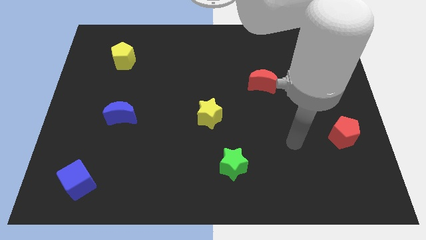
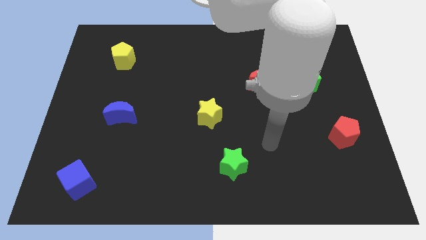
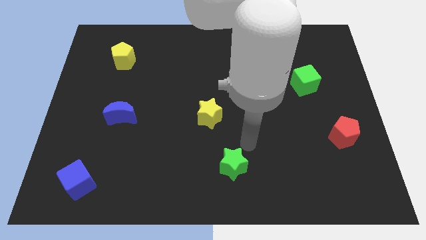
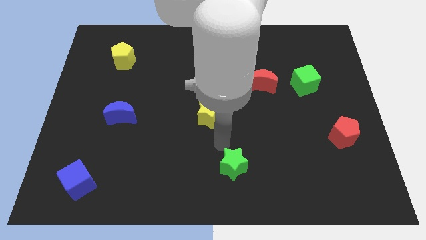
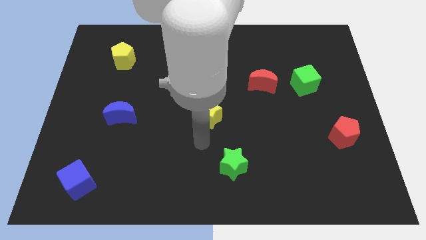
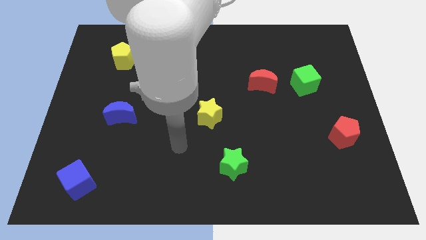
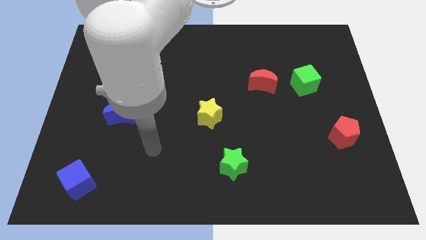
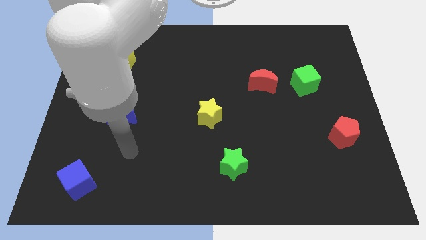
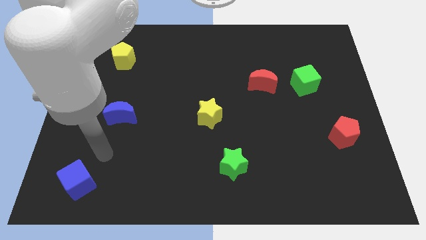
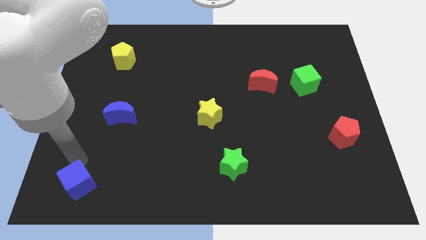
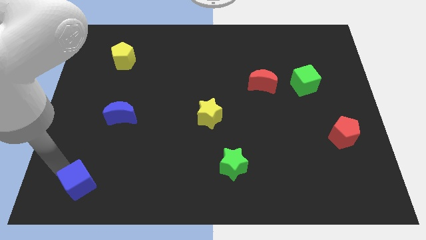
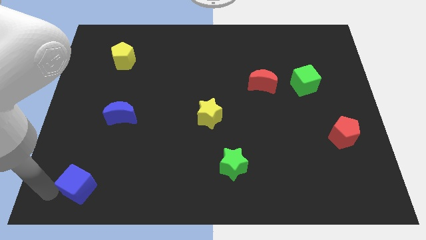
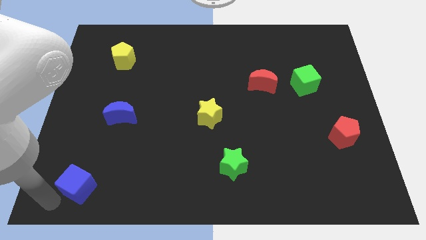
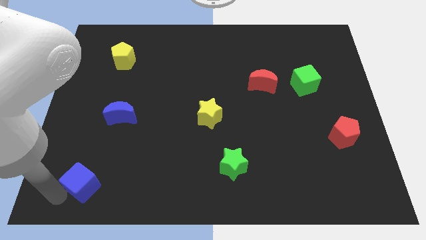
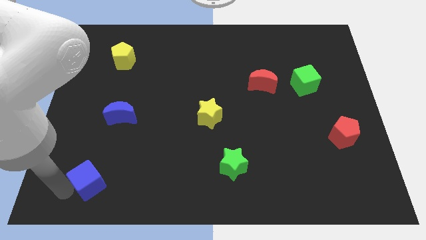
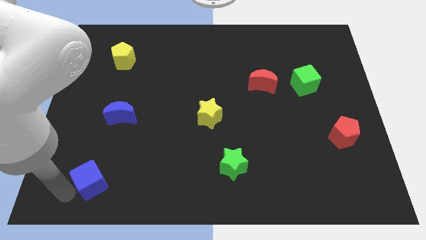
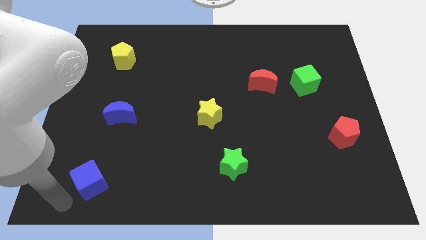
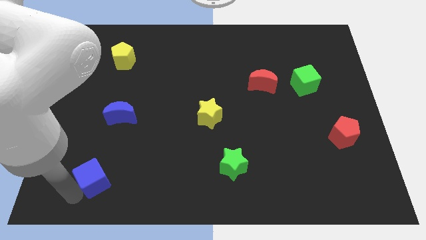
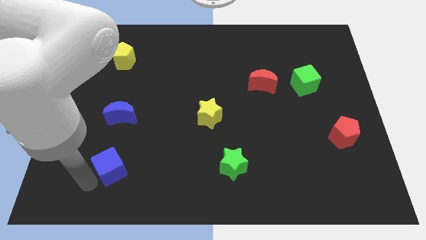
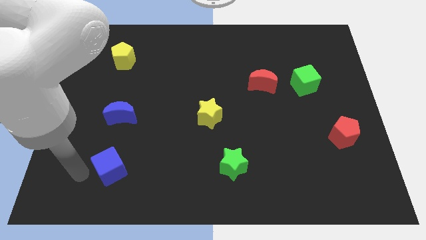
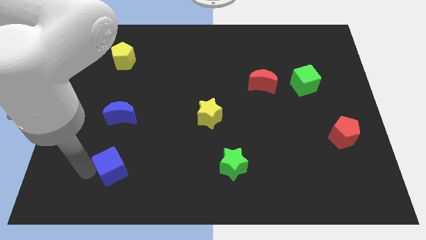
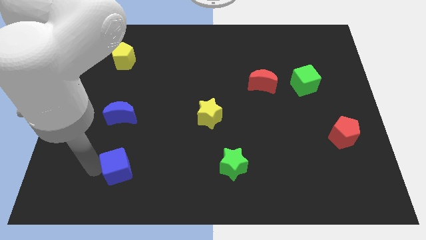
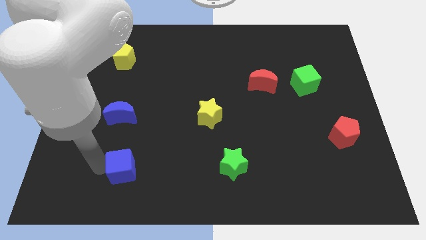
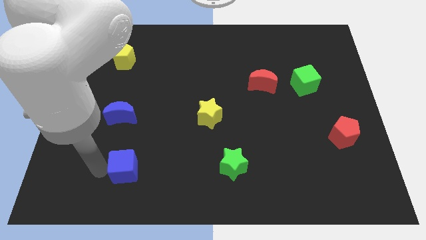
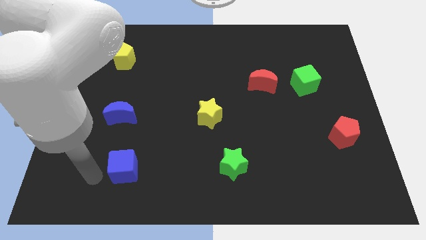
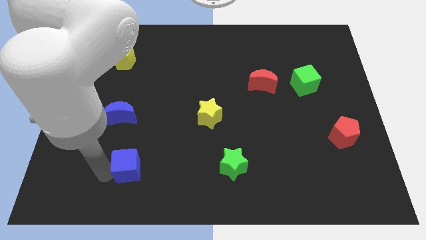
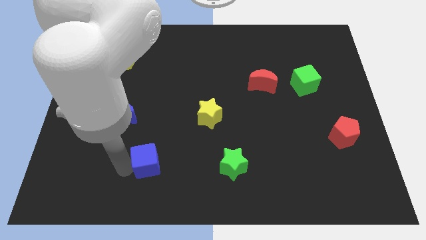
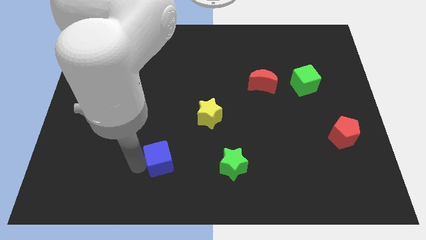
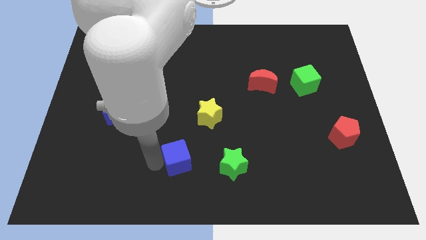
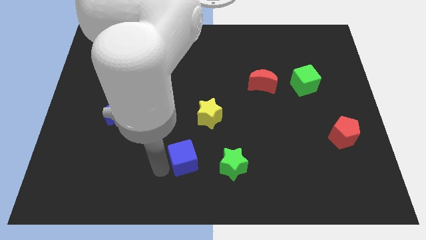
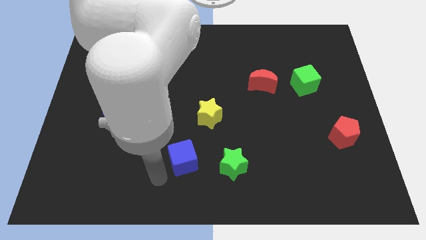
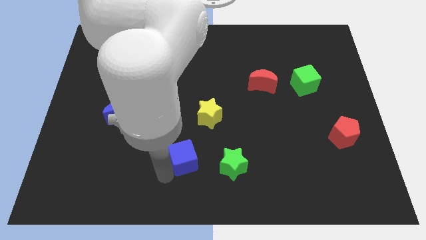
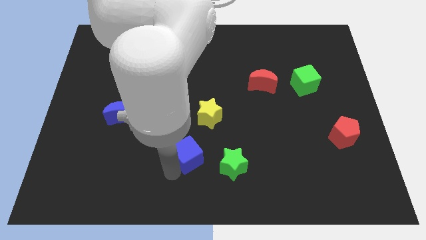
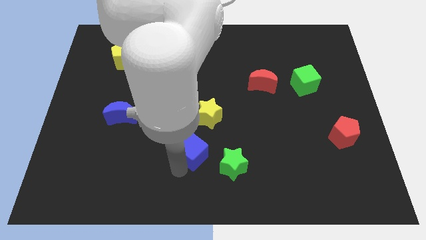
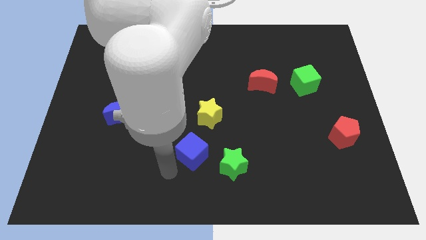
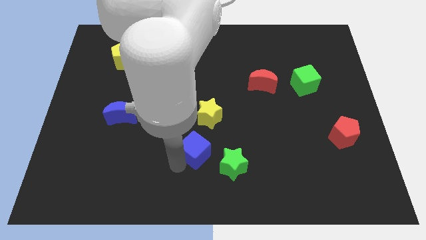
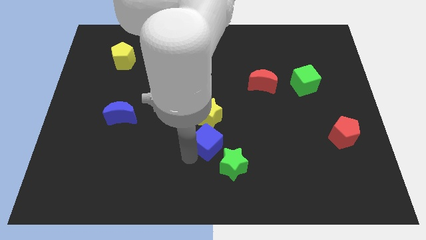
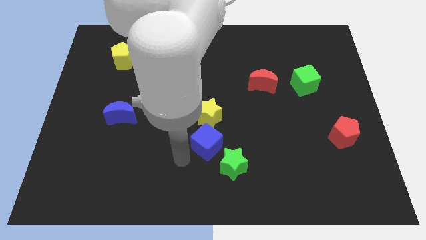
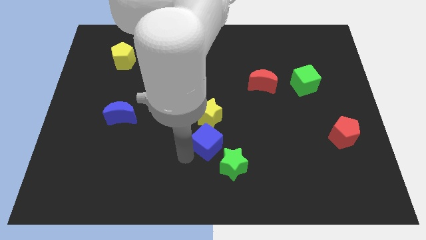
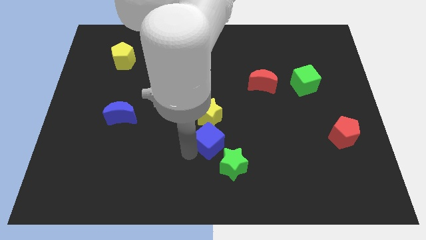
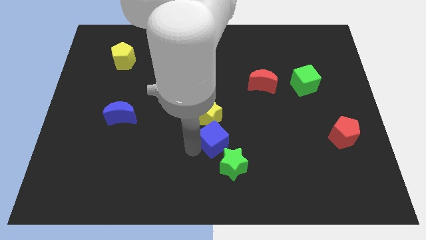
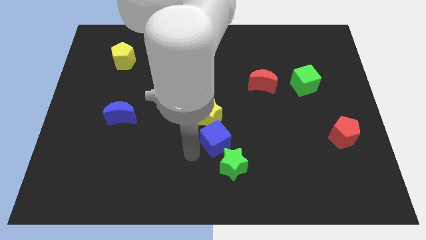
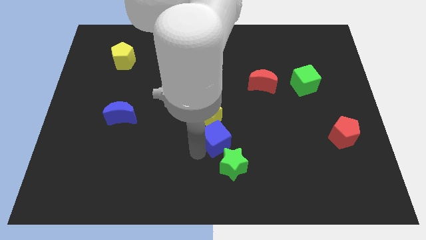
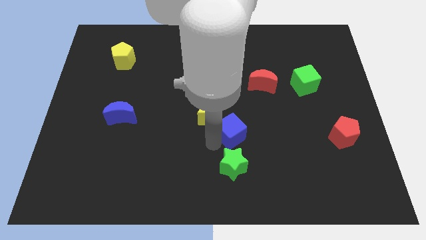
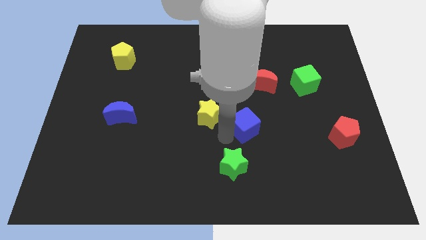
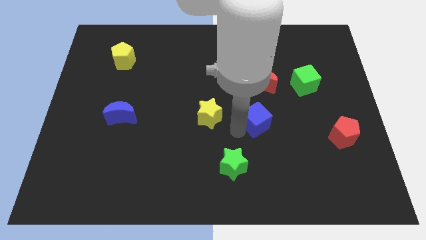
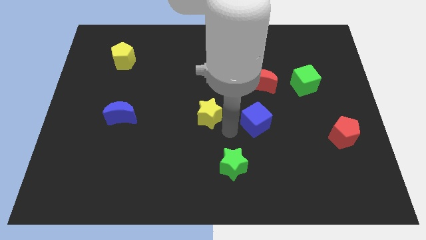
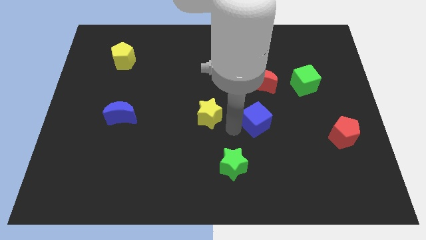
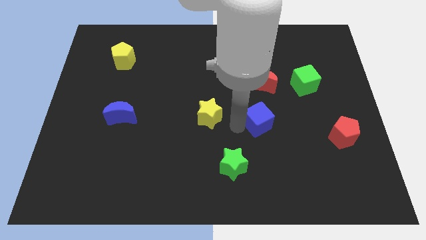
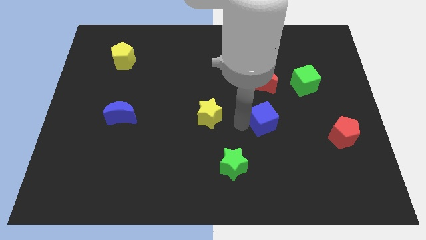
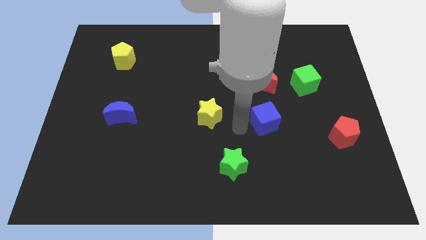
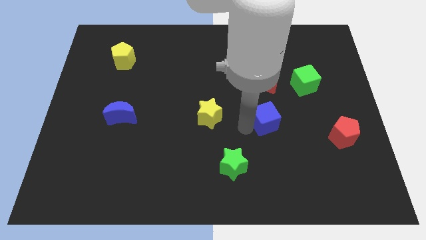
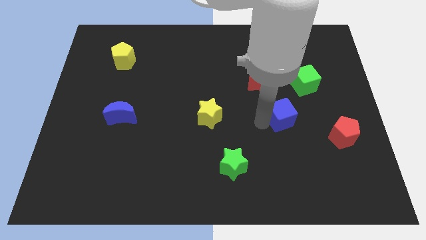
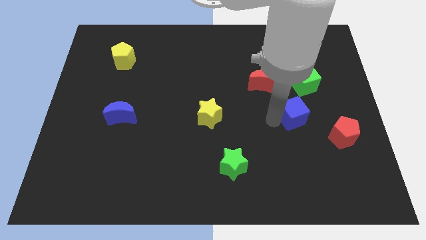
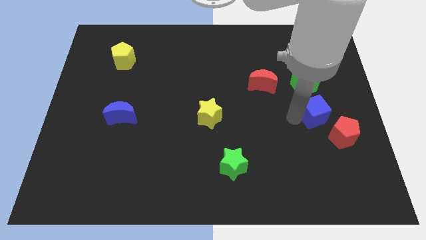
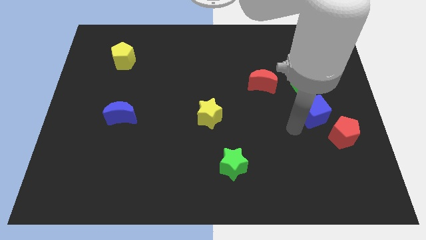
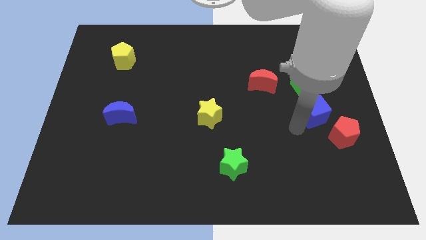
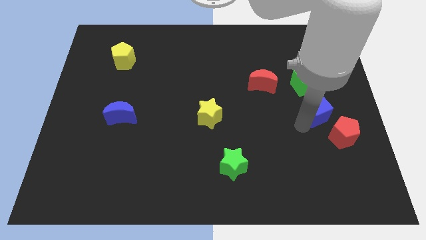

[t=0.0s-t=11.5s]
put the blue cube to the top of the red pentagon

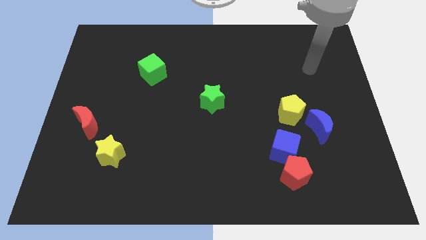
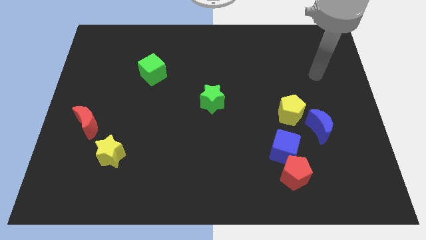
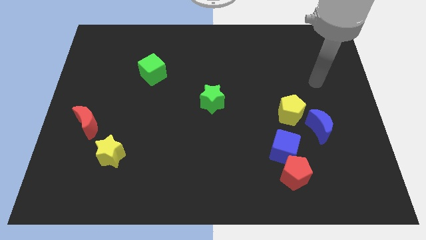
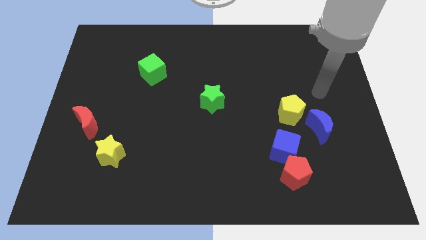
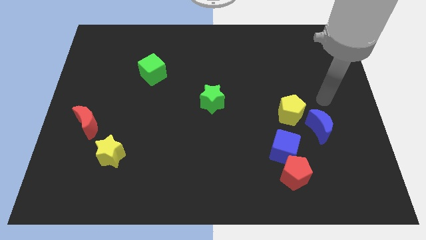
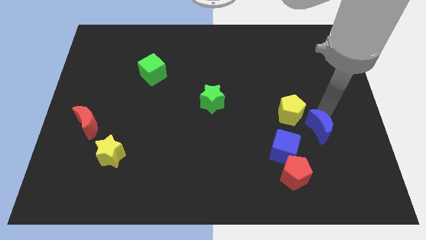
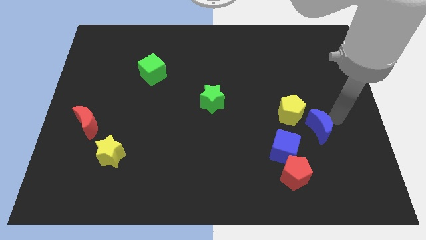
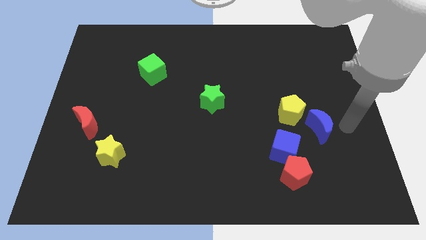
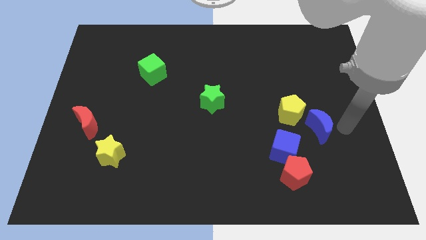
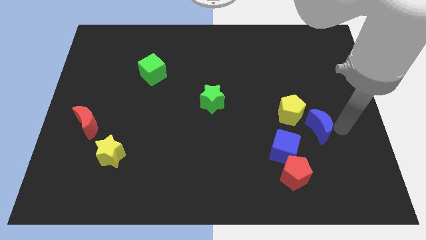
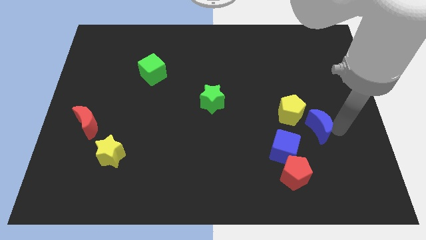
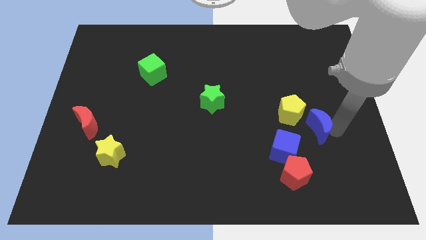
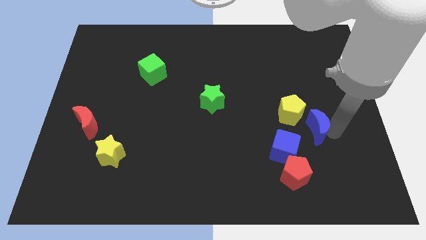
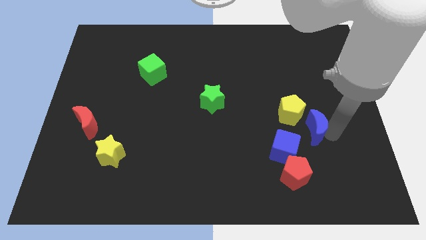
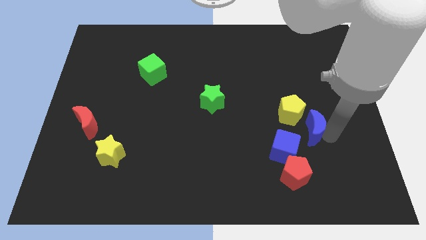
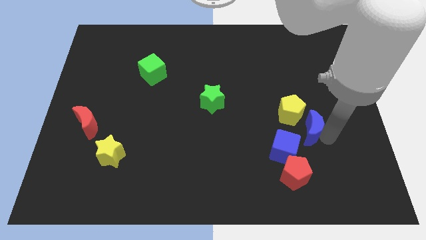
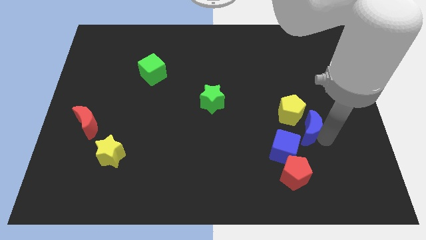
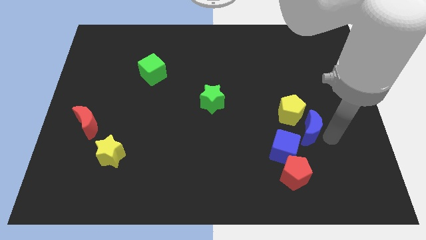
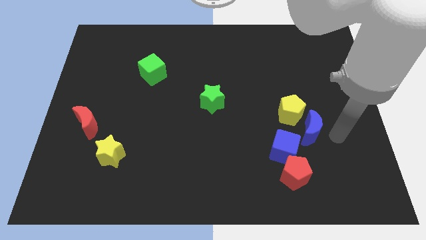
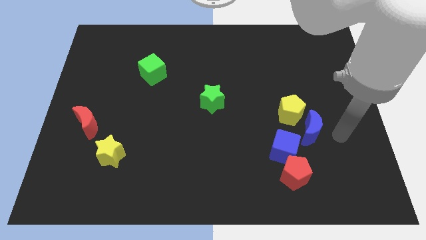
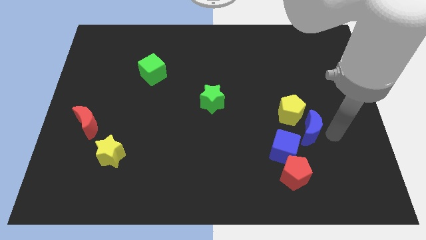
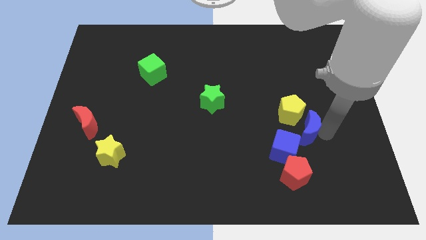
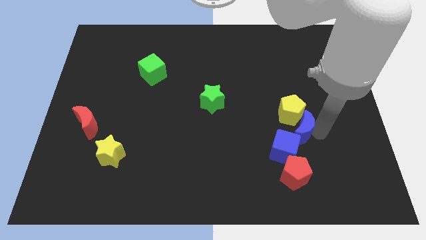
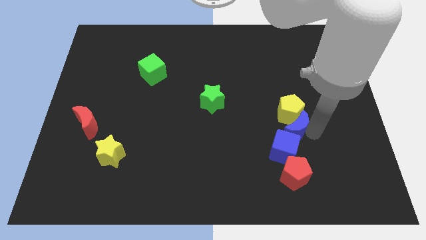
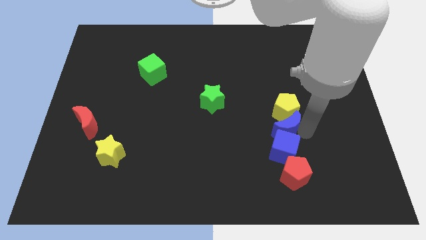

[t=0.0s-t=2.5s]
move the blue moon to the top left of the blue cube
